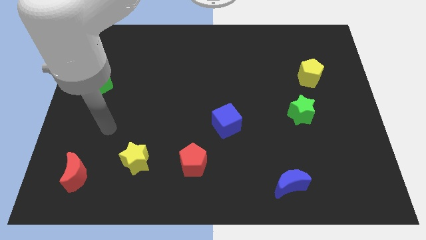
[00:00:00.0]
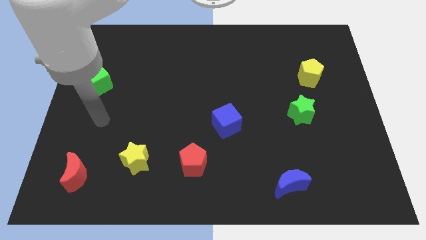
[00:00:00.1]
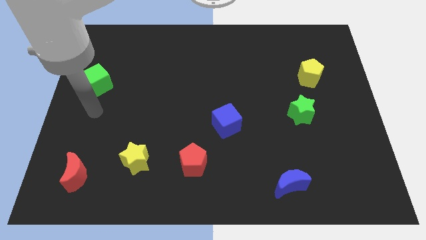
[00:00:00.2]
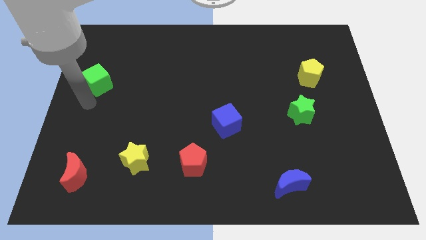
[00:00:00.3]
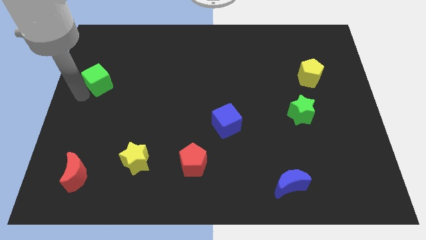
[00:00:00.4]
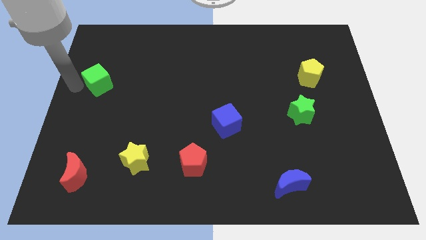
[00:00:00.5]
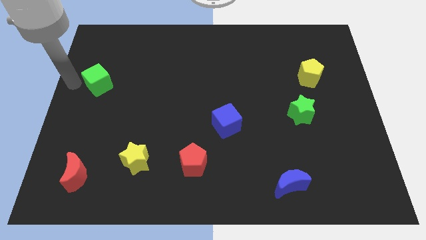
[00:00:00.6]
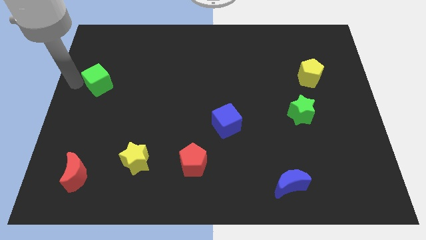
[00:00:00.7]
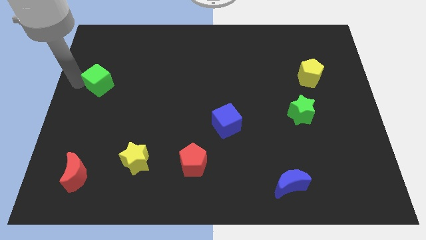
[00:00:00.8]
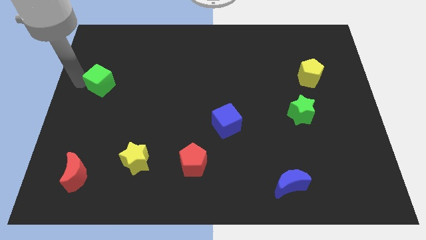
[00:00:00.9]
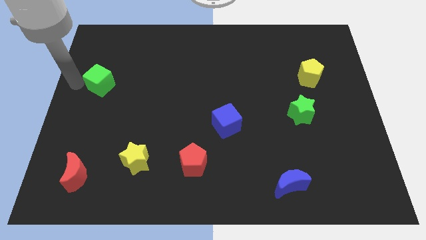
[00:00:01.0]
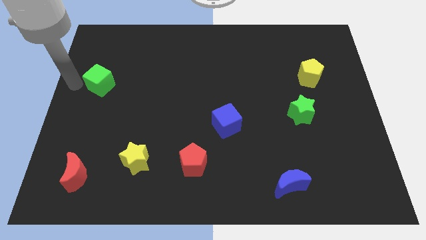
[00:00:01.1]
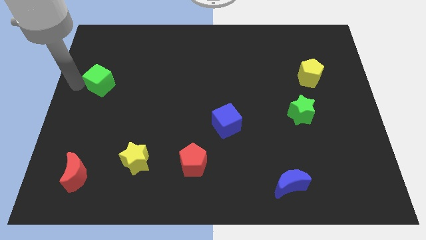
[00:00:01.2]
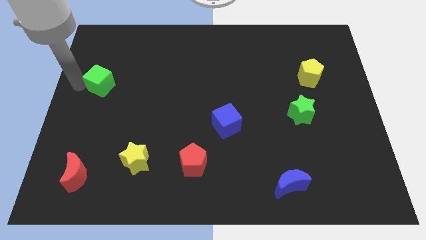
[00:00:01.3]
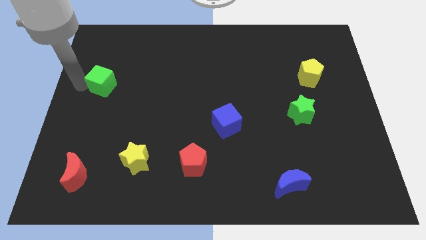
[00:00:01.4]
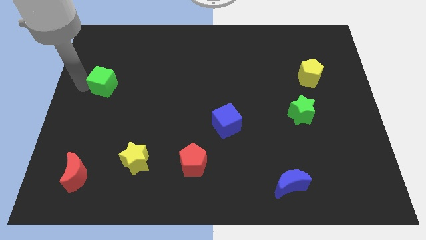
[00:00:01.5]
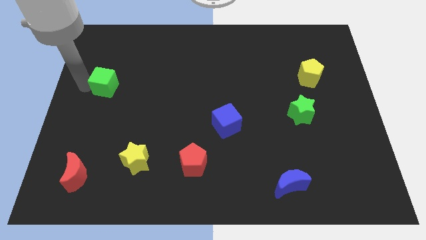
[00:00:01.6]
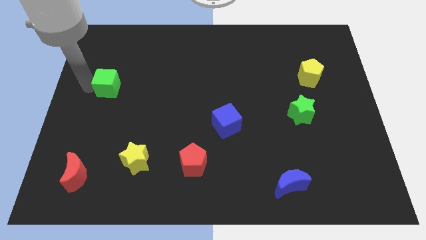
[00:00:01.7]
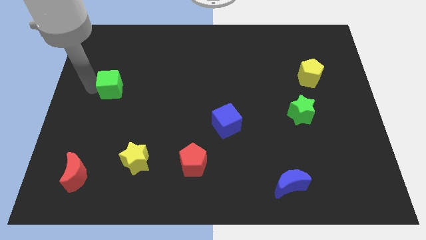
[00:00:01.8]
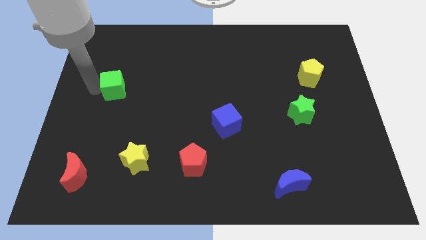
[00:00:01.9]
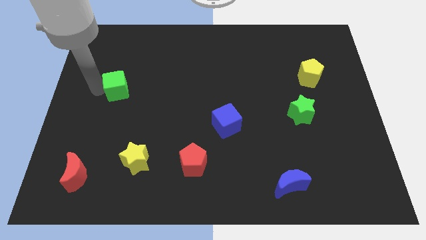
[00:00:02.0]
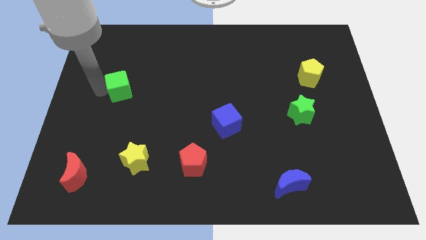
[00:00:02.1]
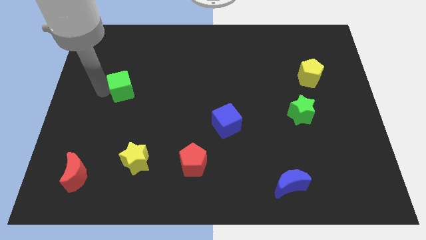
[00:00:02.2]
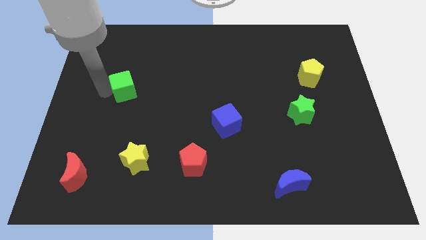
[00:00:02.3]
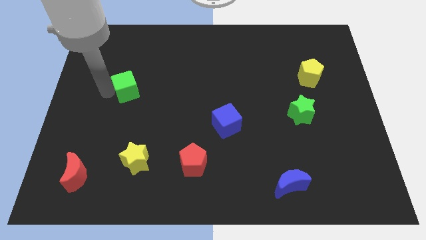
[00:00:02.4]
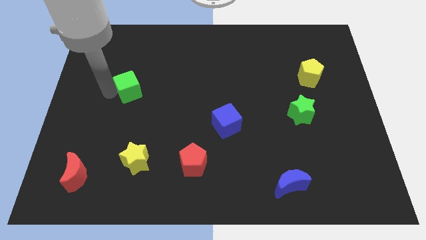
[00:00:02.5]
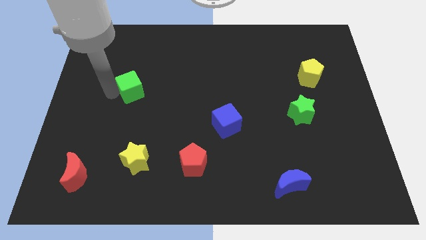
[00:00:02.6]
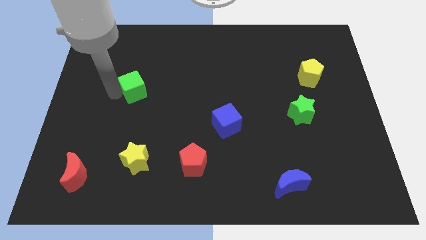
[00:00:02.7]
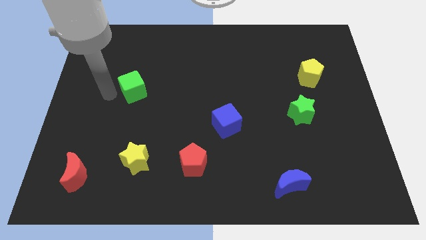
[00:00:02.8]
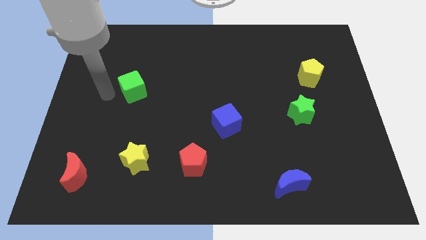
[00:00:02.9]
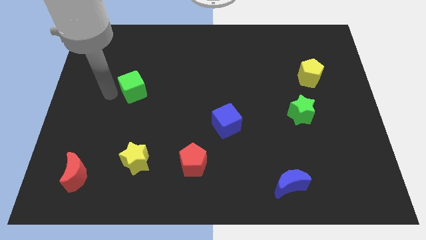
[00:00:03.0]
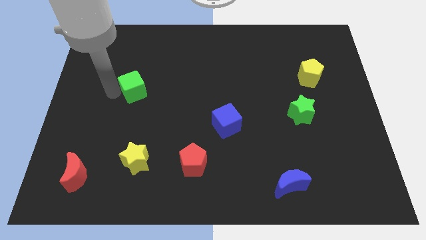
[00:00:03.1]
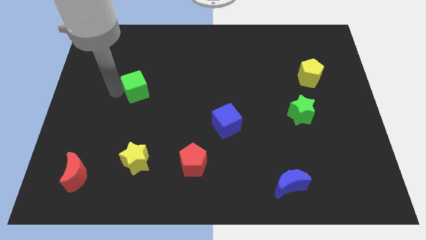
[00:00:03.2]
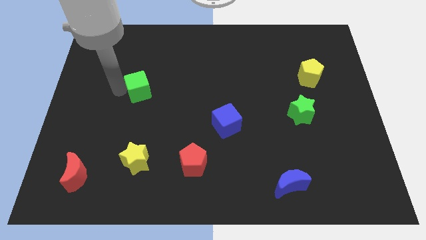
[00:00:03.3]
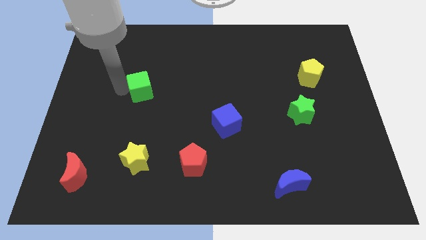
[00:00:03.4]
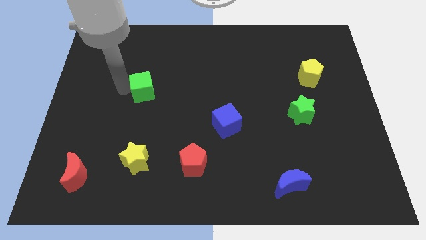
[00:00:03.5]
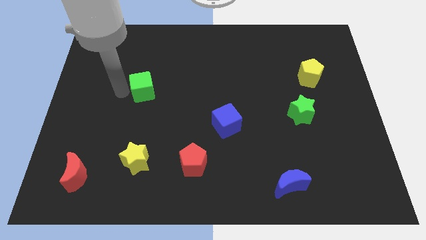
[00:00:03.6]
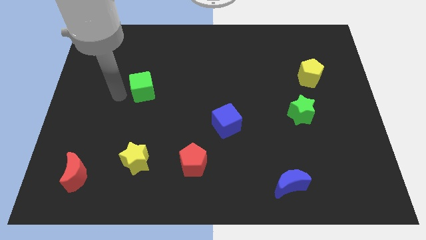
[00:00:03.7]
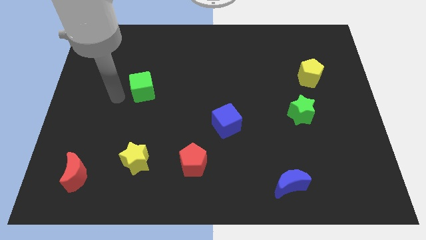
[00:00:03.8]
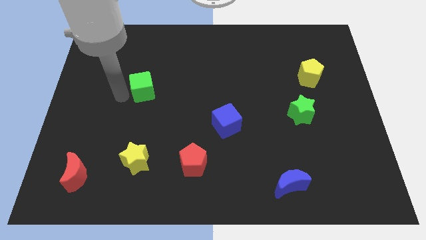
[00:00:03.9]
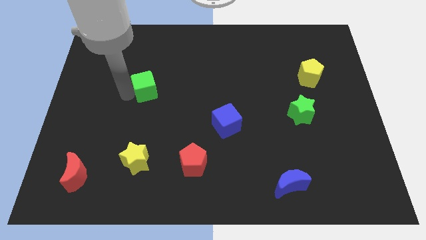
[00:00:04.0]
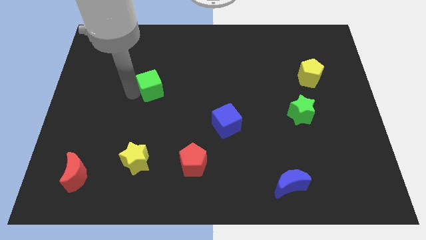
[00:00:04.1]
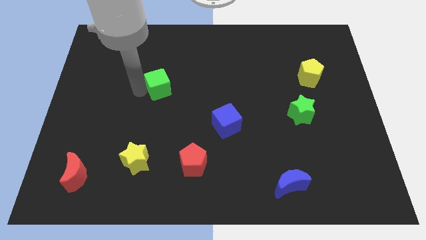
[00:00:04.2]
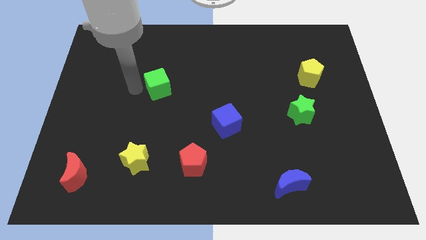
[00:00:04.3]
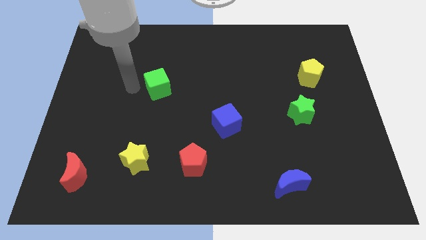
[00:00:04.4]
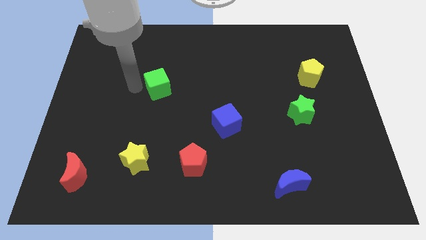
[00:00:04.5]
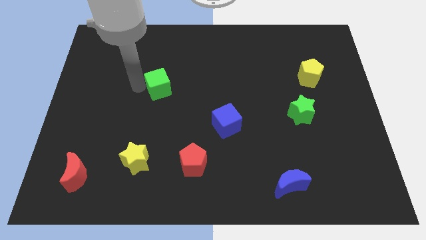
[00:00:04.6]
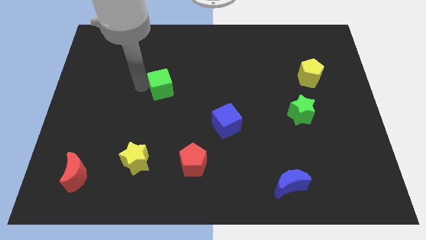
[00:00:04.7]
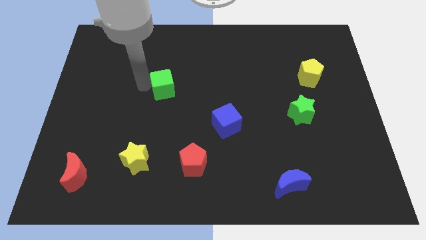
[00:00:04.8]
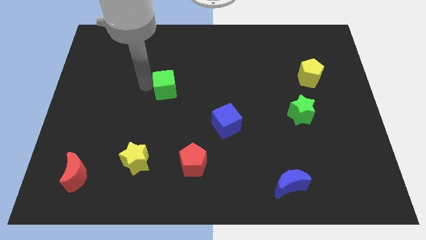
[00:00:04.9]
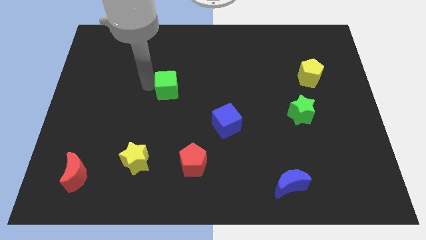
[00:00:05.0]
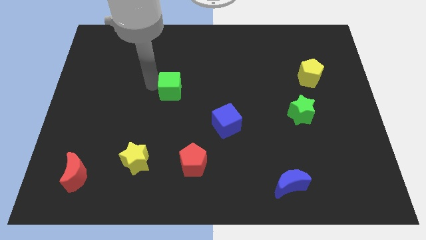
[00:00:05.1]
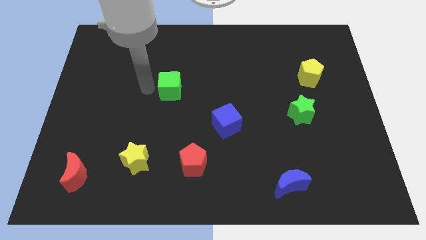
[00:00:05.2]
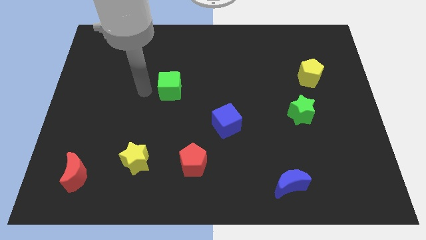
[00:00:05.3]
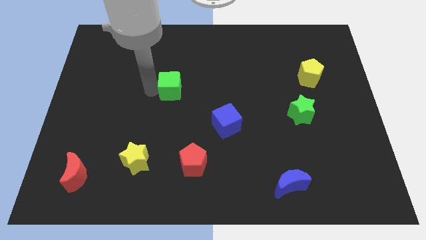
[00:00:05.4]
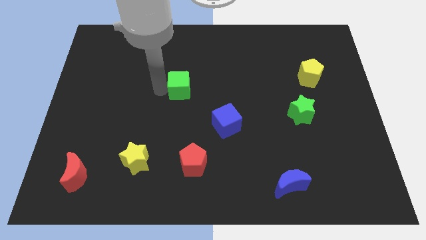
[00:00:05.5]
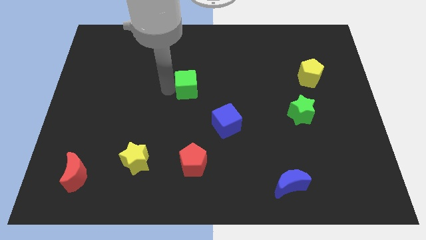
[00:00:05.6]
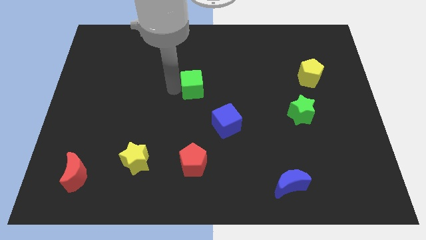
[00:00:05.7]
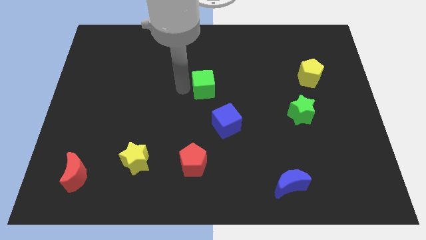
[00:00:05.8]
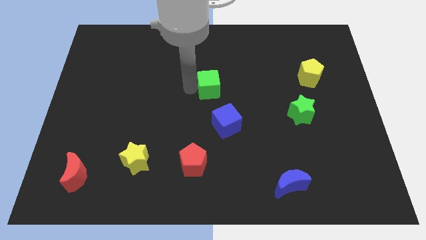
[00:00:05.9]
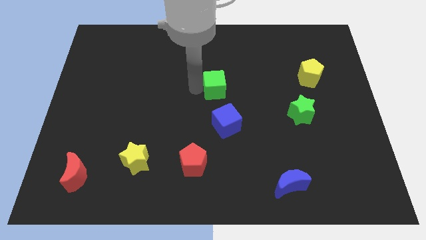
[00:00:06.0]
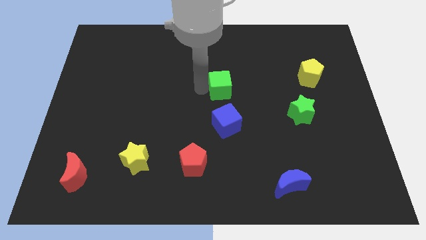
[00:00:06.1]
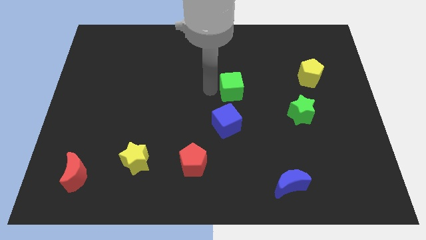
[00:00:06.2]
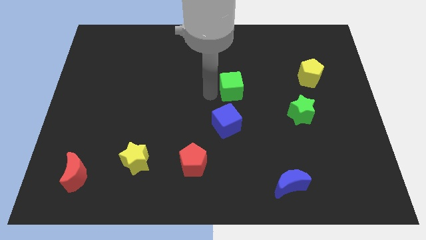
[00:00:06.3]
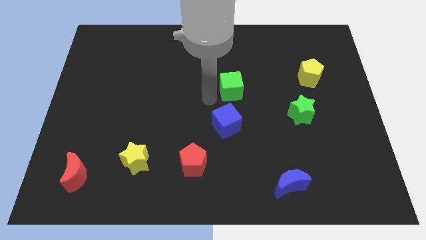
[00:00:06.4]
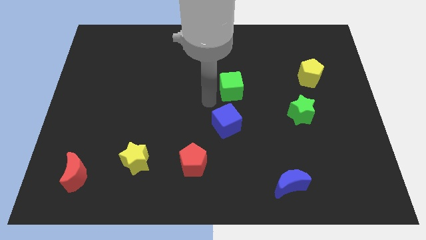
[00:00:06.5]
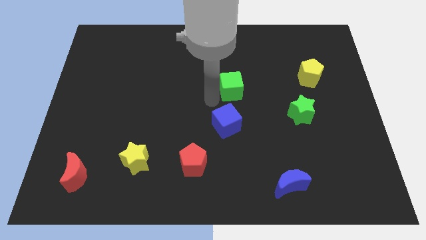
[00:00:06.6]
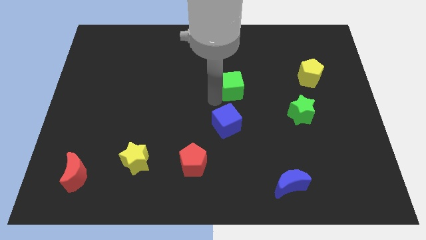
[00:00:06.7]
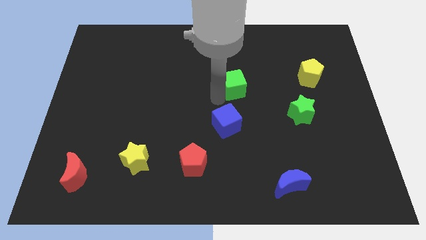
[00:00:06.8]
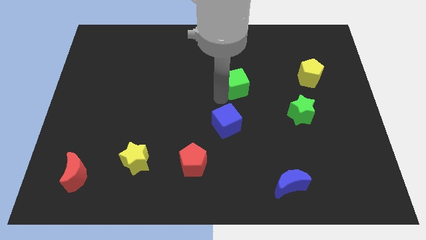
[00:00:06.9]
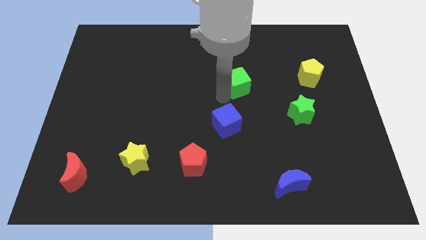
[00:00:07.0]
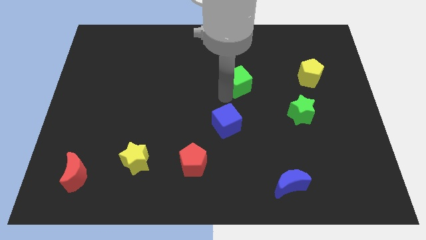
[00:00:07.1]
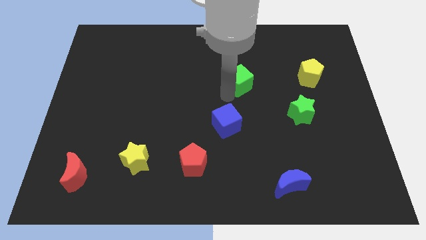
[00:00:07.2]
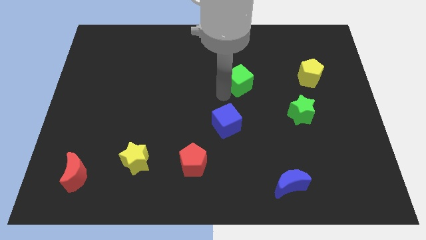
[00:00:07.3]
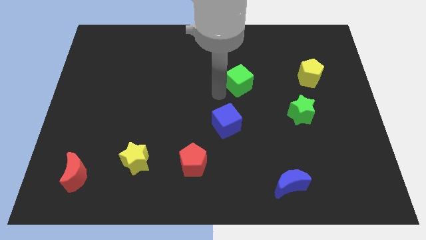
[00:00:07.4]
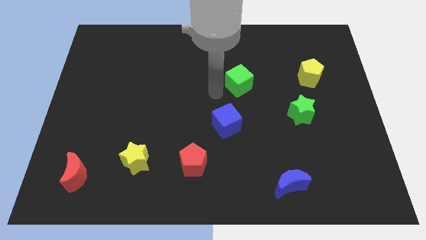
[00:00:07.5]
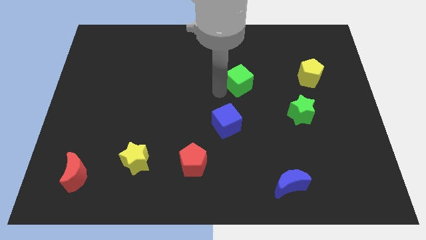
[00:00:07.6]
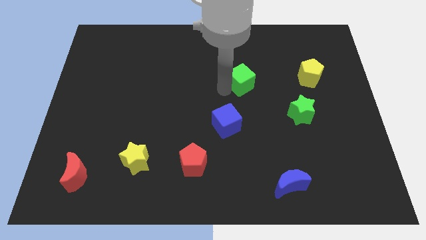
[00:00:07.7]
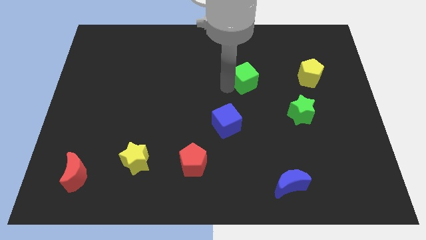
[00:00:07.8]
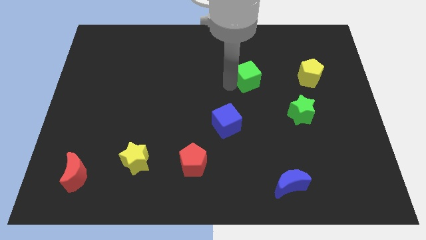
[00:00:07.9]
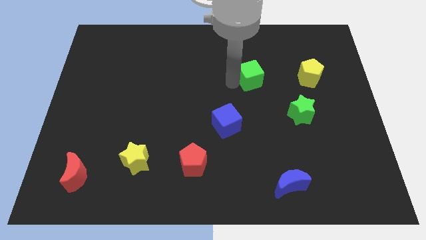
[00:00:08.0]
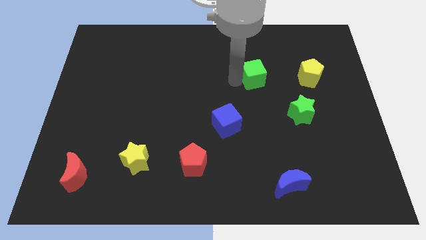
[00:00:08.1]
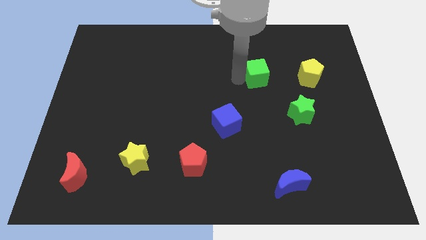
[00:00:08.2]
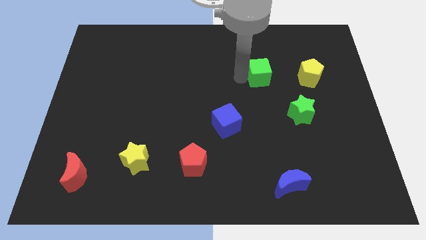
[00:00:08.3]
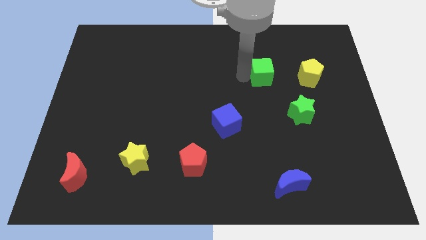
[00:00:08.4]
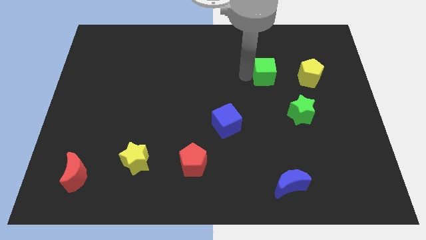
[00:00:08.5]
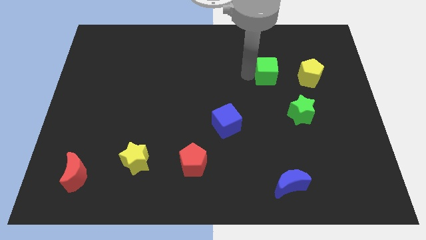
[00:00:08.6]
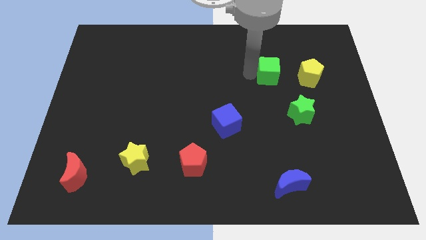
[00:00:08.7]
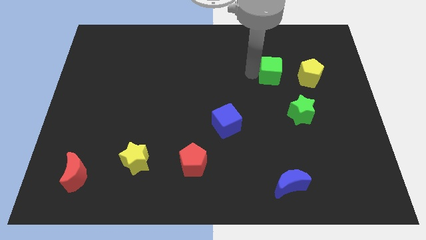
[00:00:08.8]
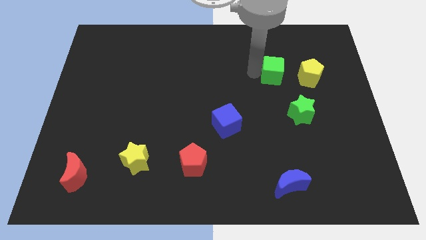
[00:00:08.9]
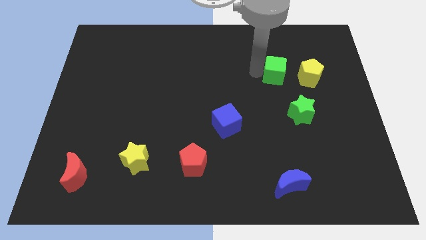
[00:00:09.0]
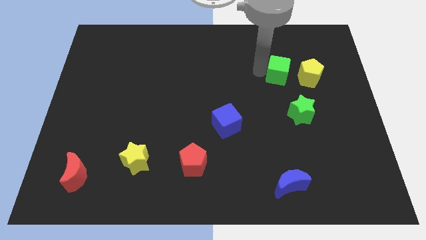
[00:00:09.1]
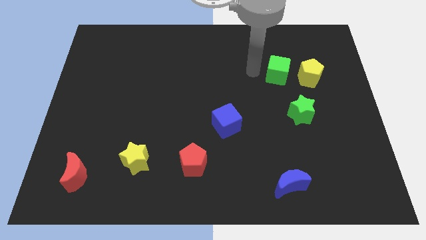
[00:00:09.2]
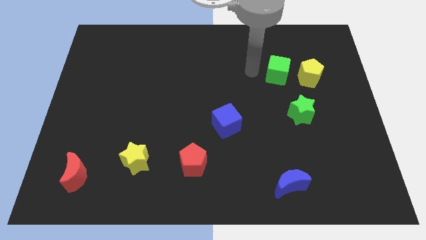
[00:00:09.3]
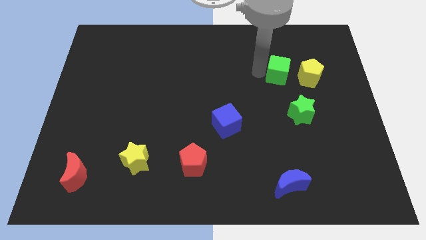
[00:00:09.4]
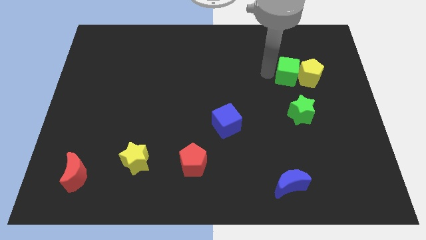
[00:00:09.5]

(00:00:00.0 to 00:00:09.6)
put the green cube next to the yellow pentagon
